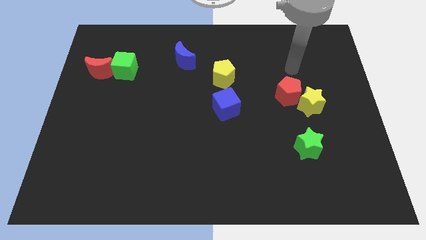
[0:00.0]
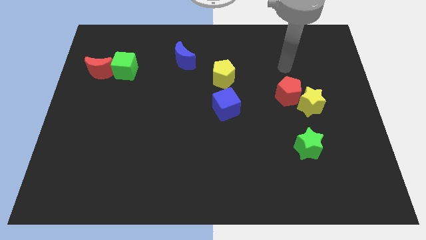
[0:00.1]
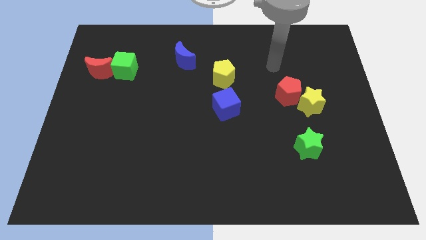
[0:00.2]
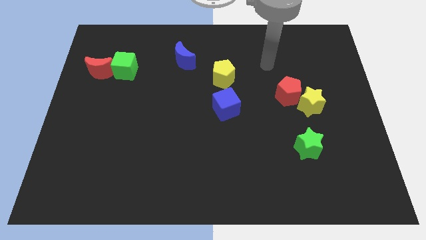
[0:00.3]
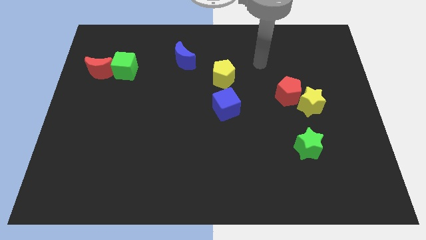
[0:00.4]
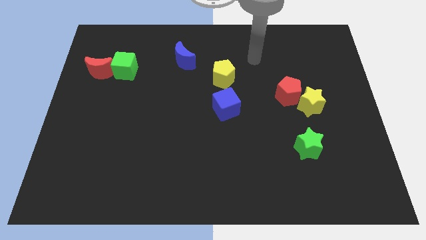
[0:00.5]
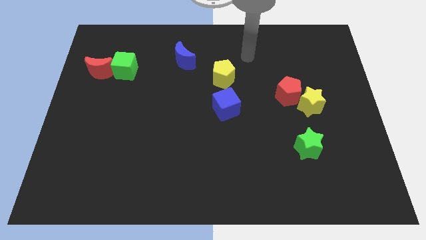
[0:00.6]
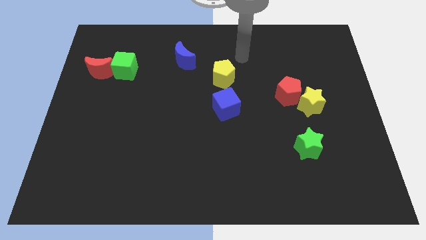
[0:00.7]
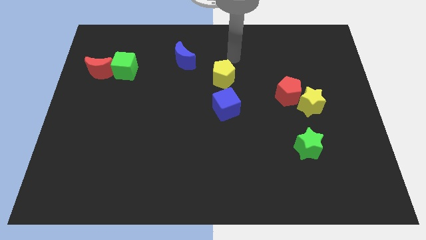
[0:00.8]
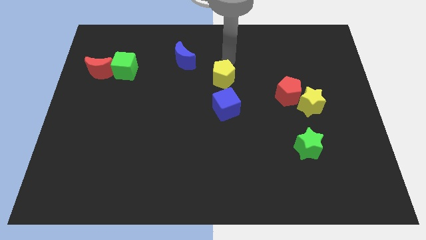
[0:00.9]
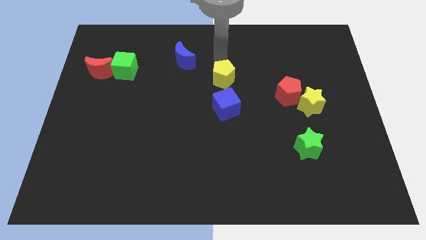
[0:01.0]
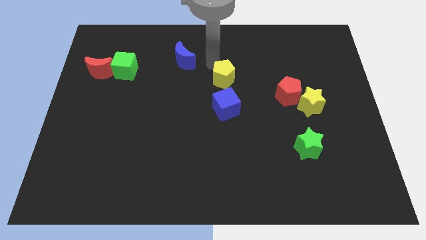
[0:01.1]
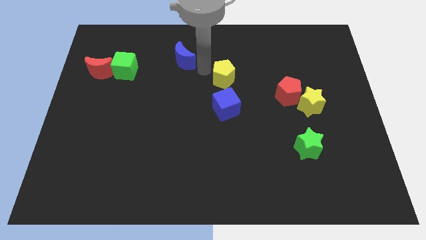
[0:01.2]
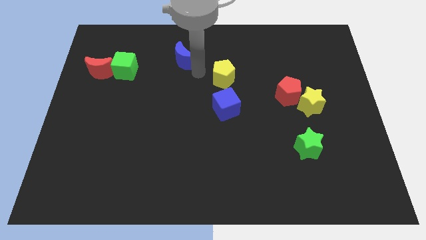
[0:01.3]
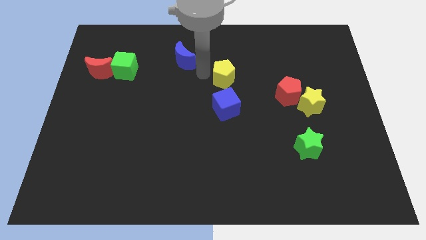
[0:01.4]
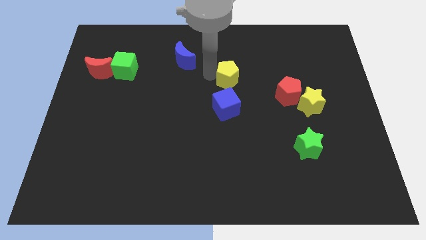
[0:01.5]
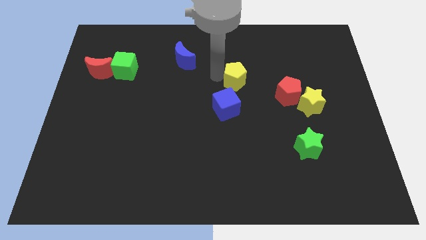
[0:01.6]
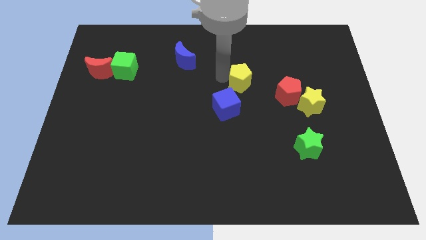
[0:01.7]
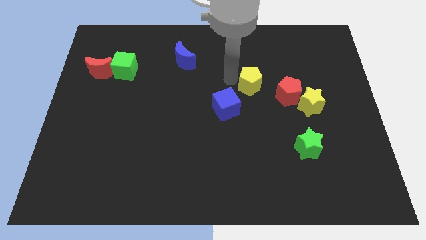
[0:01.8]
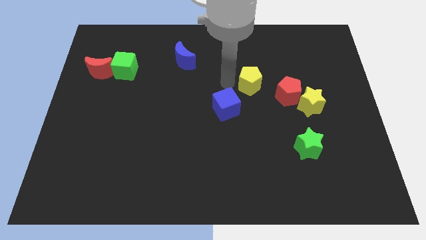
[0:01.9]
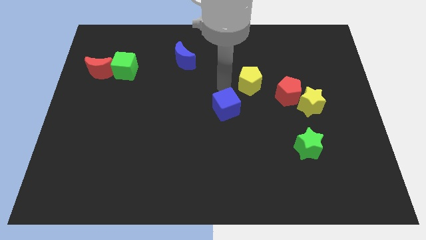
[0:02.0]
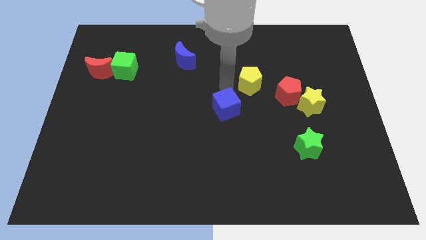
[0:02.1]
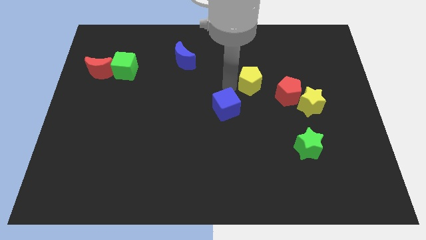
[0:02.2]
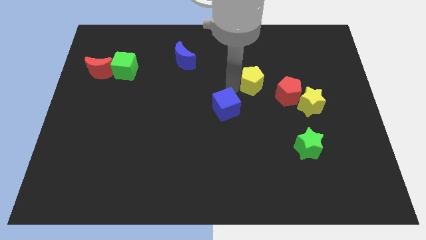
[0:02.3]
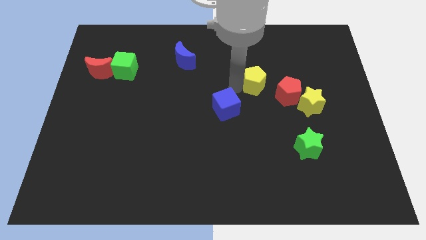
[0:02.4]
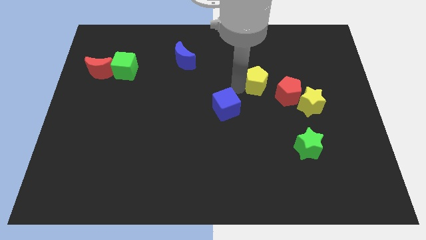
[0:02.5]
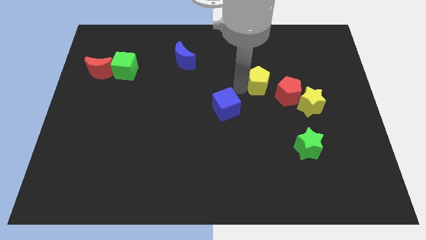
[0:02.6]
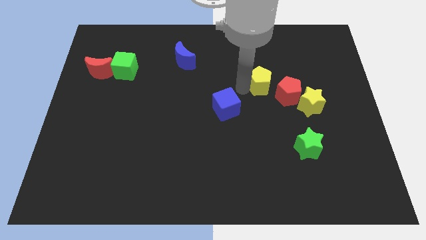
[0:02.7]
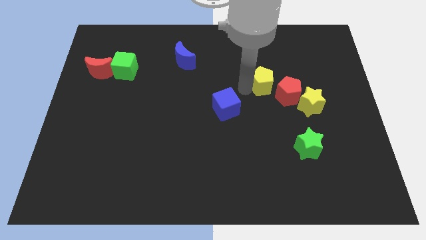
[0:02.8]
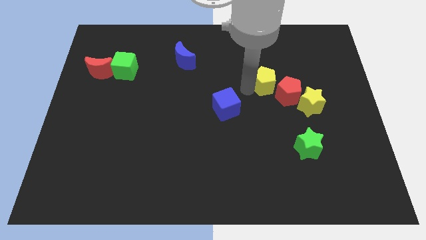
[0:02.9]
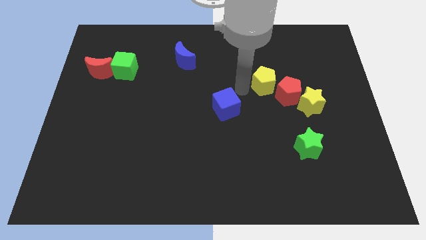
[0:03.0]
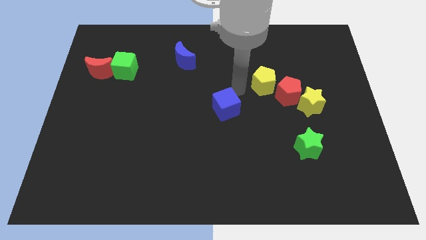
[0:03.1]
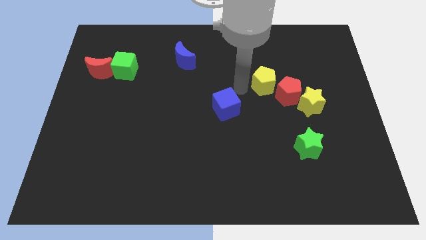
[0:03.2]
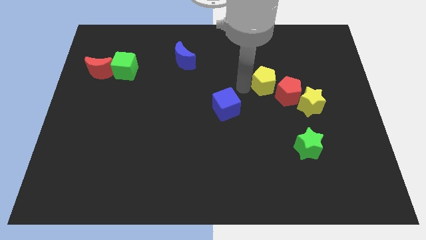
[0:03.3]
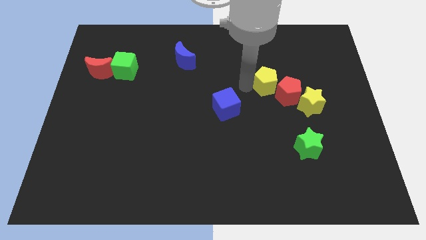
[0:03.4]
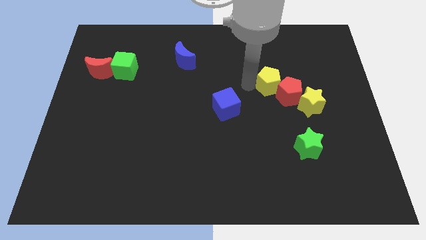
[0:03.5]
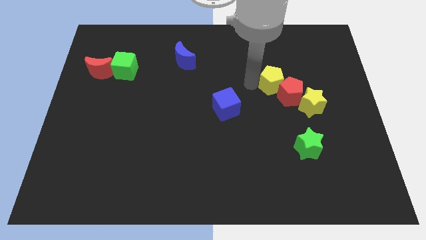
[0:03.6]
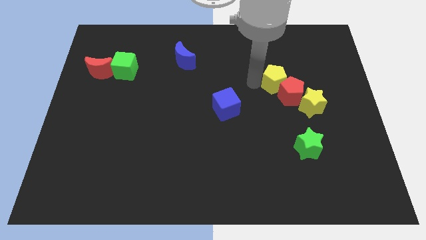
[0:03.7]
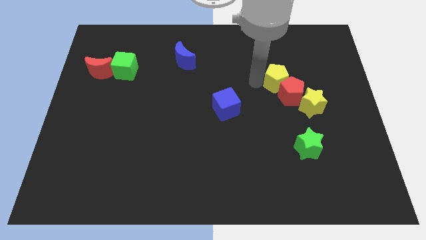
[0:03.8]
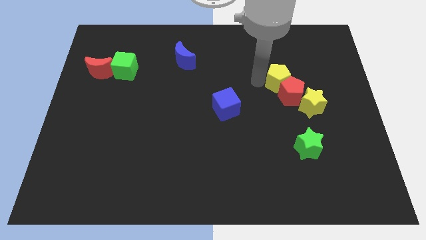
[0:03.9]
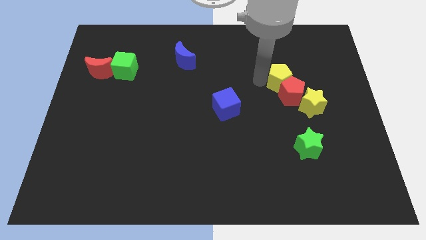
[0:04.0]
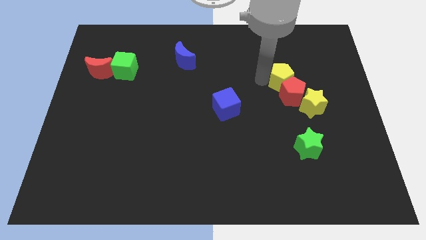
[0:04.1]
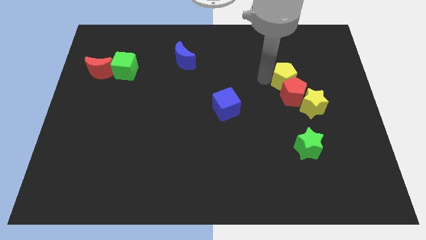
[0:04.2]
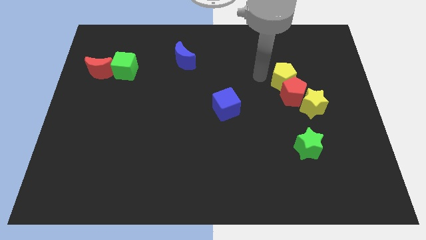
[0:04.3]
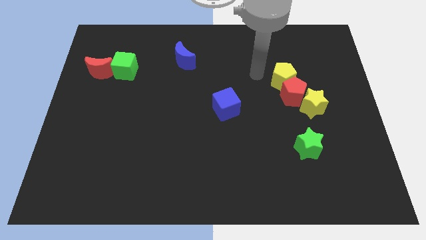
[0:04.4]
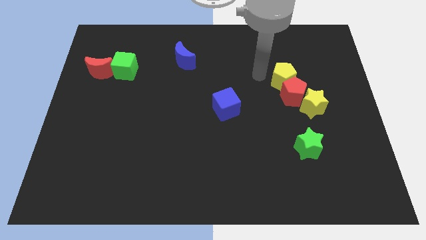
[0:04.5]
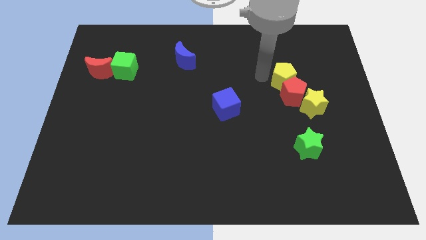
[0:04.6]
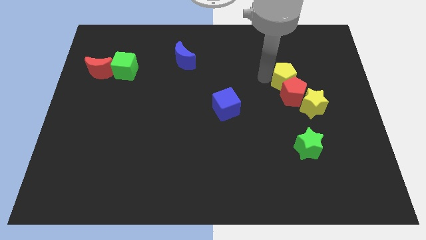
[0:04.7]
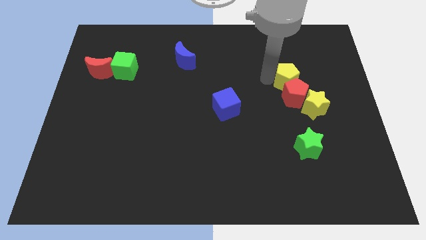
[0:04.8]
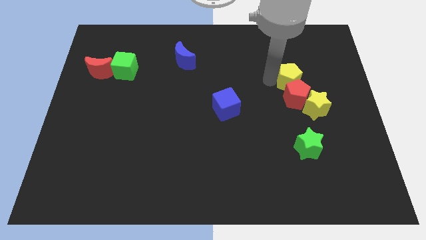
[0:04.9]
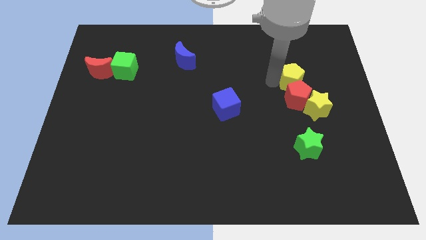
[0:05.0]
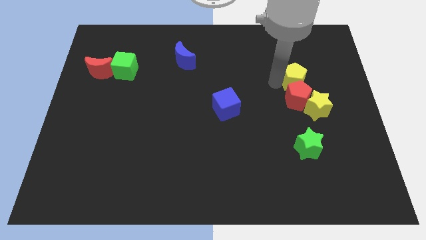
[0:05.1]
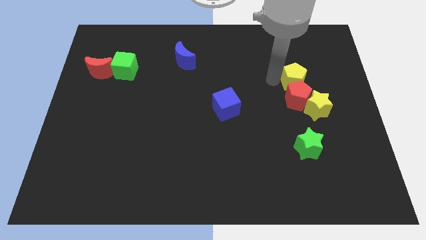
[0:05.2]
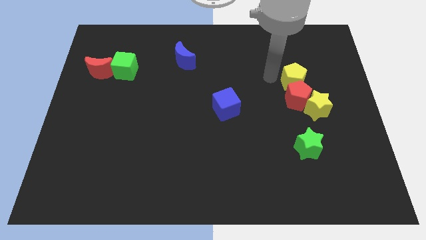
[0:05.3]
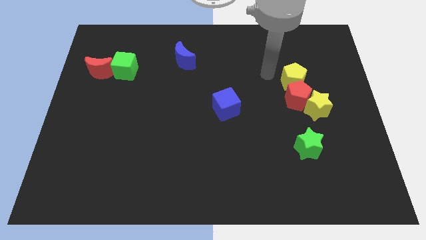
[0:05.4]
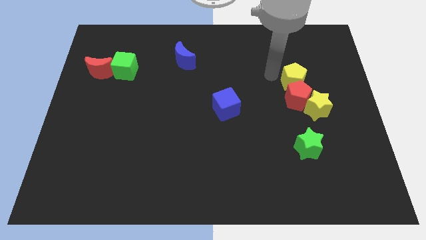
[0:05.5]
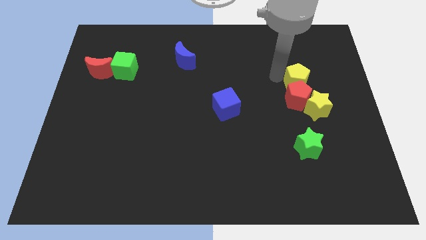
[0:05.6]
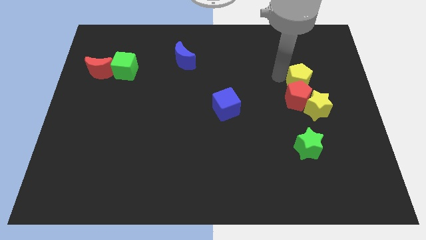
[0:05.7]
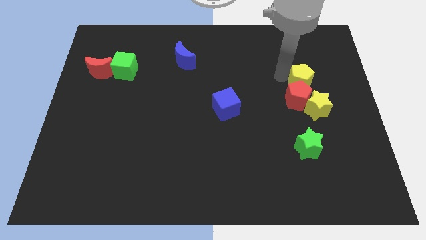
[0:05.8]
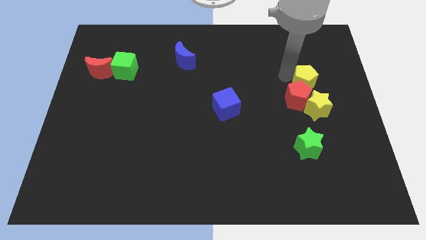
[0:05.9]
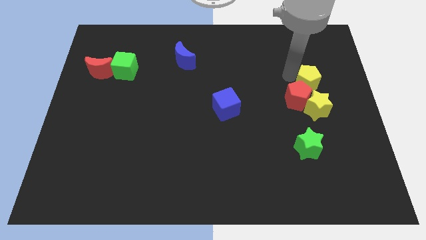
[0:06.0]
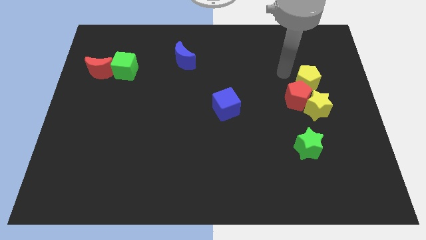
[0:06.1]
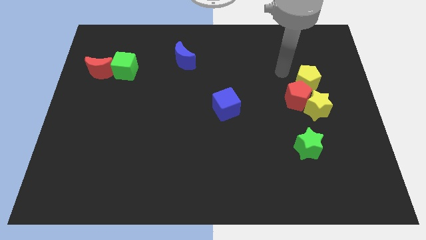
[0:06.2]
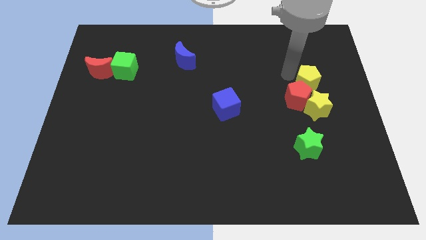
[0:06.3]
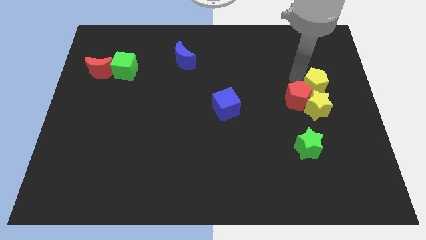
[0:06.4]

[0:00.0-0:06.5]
push the yellow pentagon to the right of the red pentagon

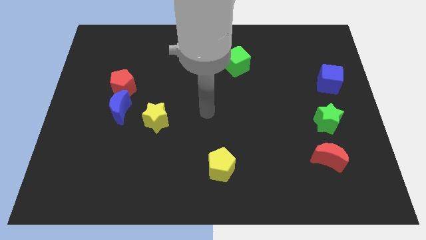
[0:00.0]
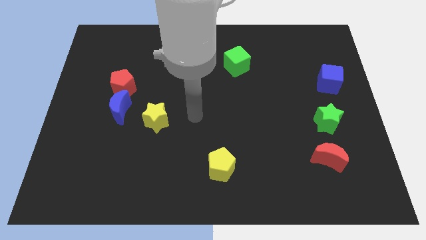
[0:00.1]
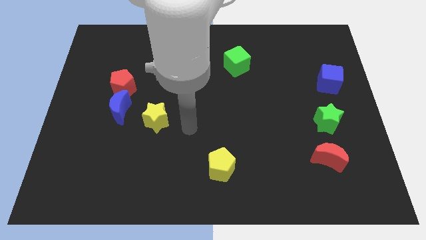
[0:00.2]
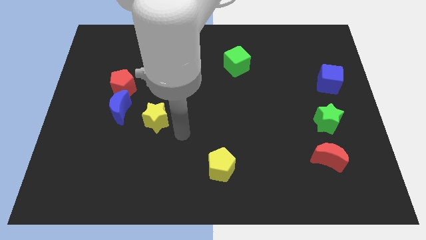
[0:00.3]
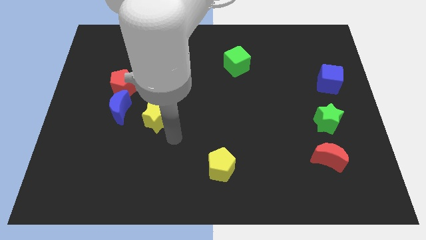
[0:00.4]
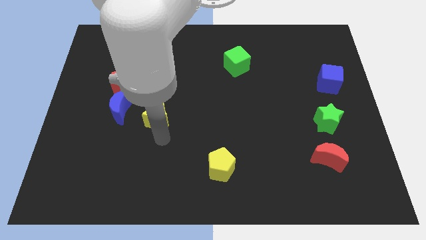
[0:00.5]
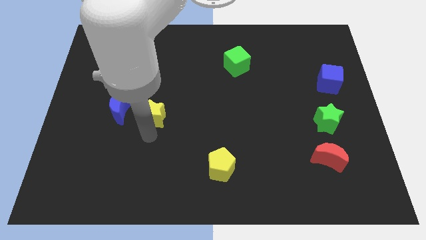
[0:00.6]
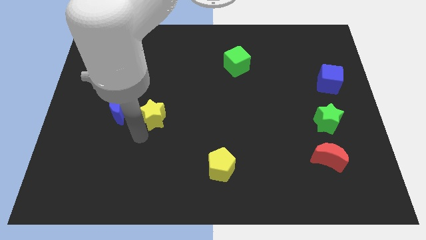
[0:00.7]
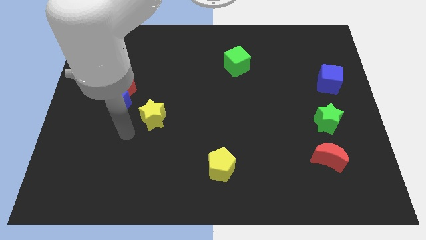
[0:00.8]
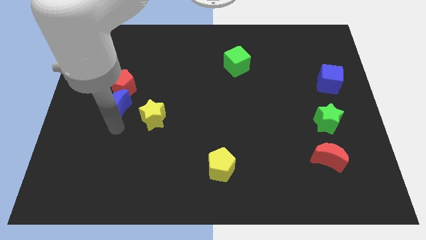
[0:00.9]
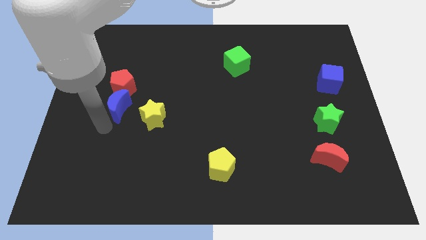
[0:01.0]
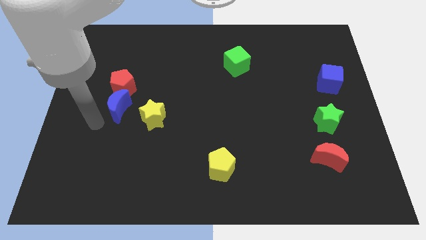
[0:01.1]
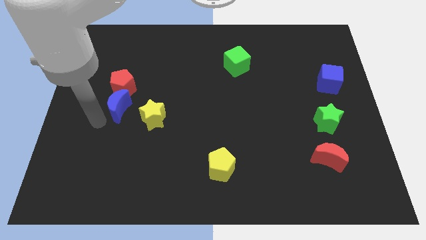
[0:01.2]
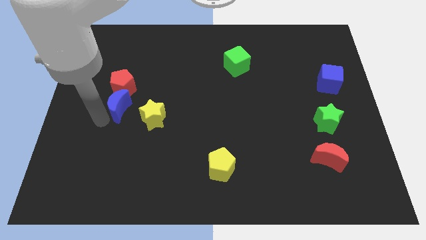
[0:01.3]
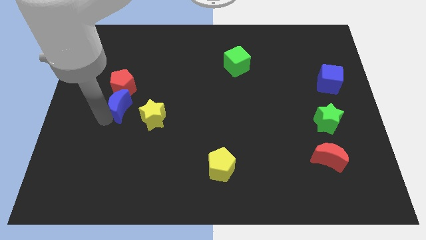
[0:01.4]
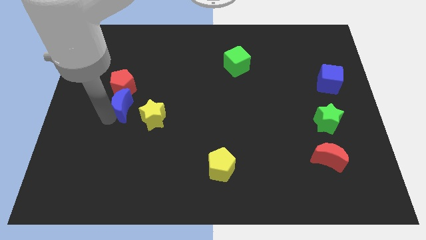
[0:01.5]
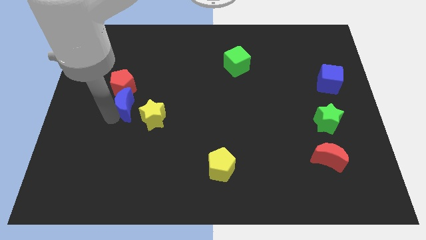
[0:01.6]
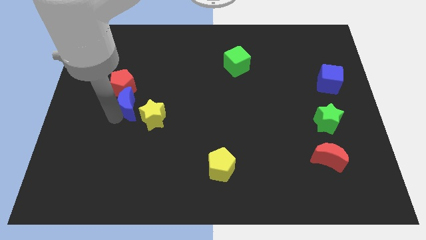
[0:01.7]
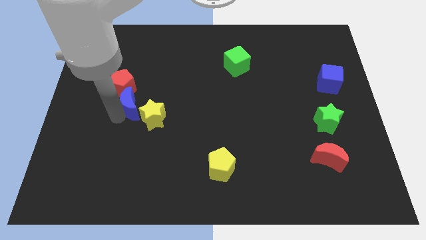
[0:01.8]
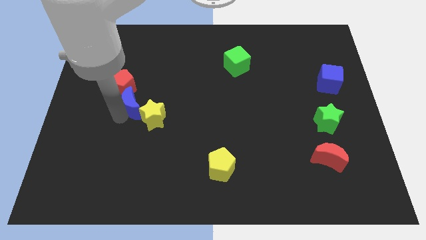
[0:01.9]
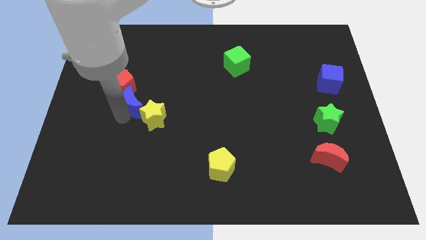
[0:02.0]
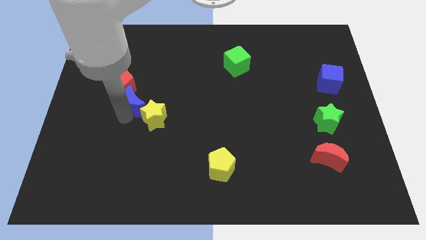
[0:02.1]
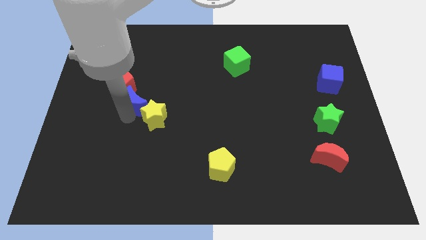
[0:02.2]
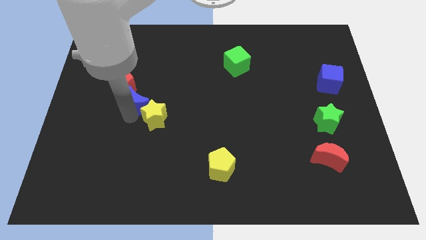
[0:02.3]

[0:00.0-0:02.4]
slide the blue moon to the top side of the yellow star
